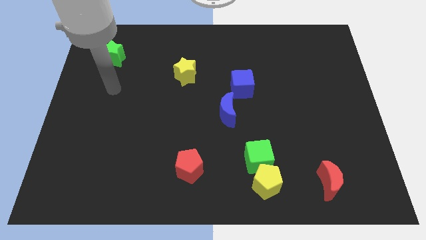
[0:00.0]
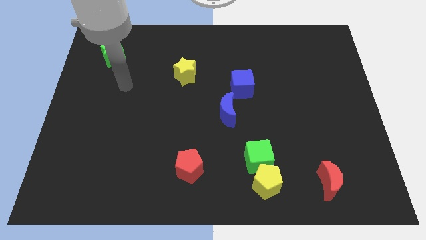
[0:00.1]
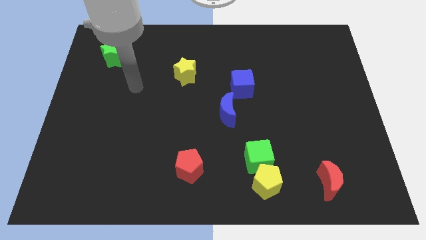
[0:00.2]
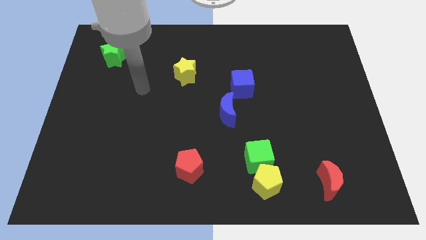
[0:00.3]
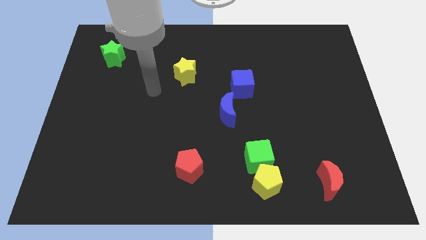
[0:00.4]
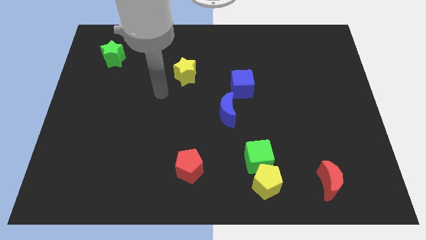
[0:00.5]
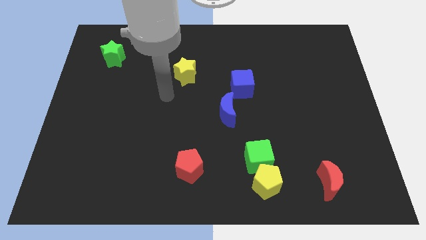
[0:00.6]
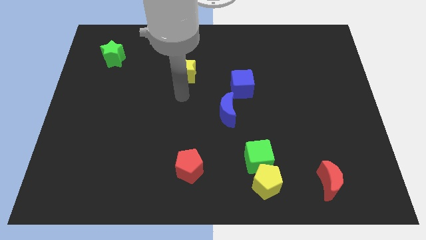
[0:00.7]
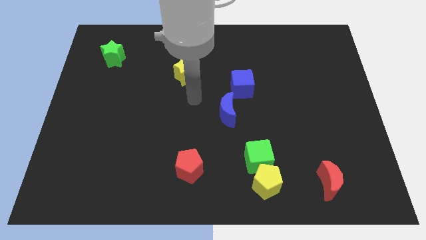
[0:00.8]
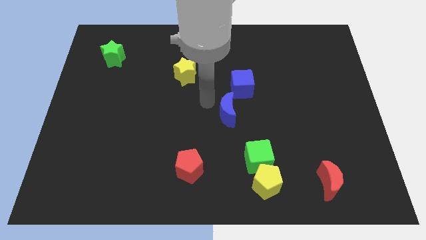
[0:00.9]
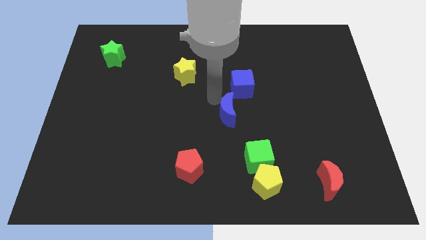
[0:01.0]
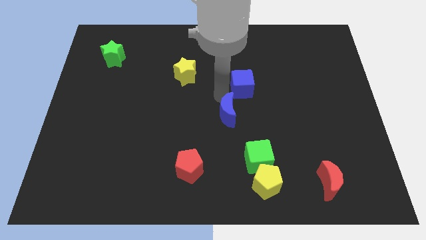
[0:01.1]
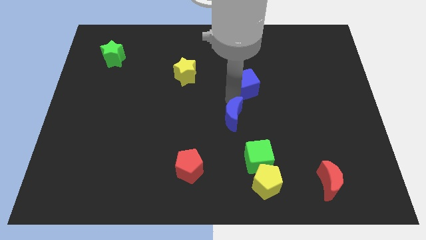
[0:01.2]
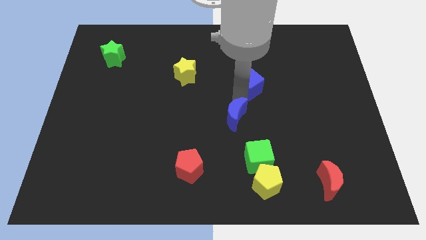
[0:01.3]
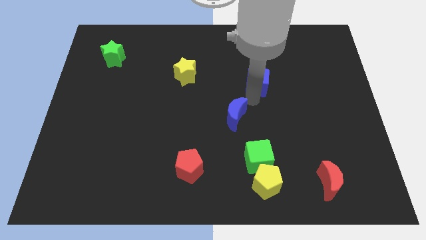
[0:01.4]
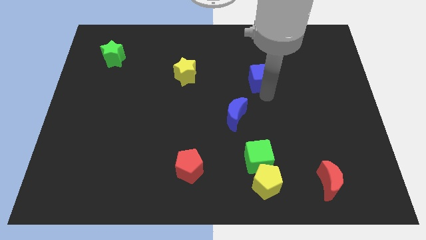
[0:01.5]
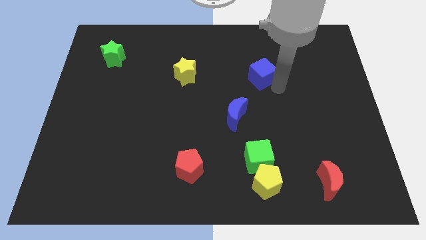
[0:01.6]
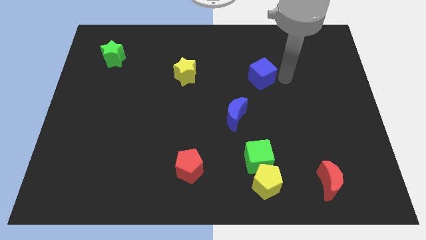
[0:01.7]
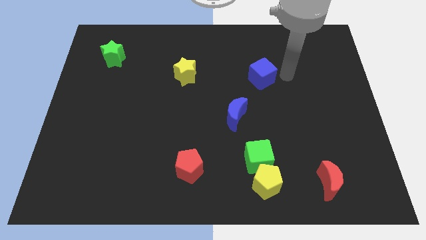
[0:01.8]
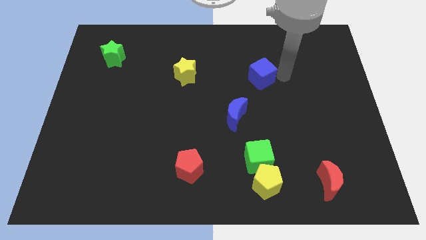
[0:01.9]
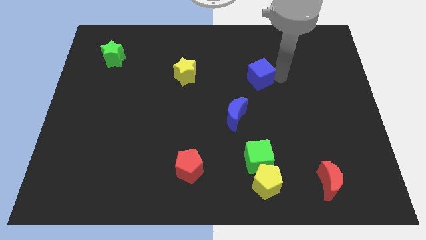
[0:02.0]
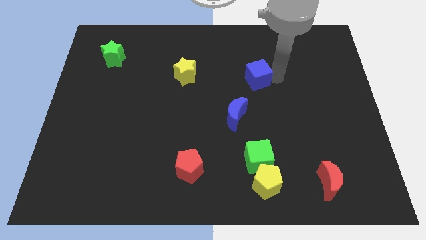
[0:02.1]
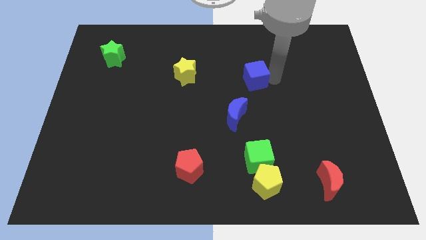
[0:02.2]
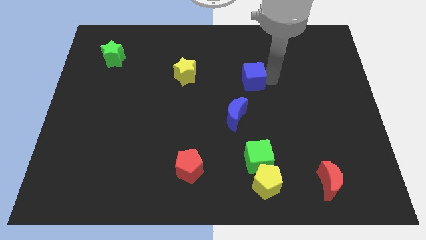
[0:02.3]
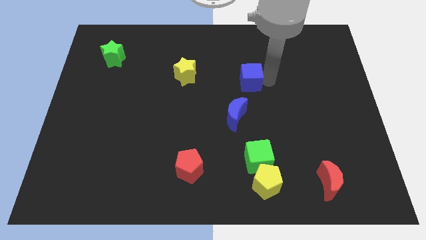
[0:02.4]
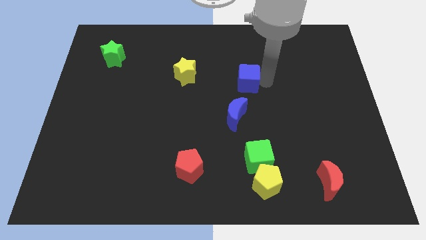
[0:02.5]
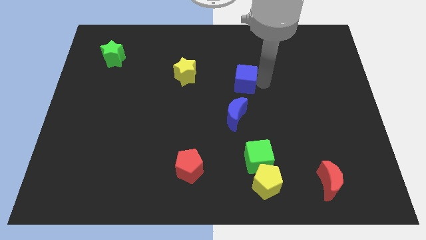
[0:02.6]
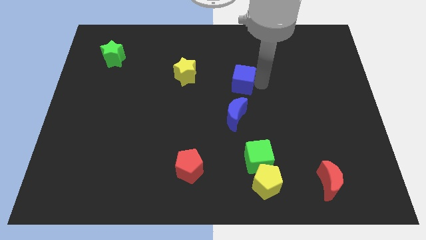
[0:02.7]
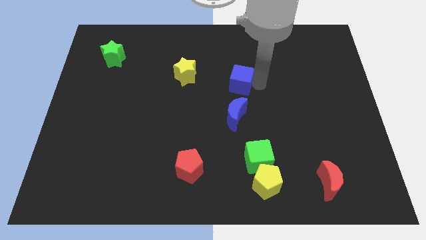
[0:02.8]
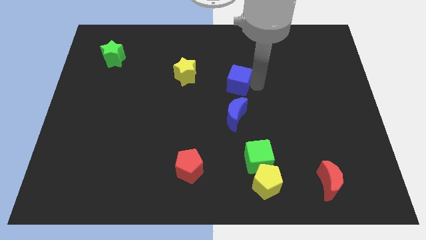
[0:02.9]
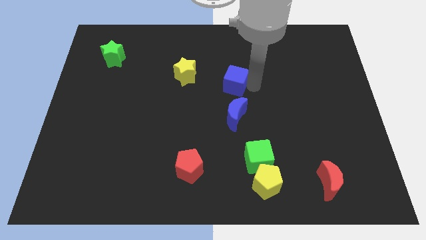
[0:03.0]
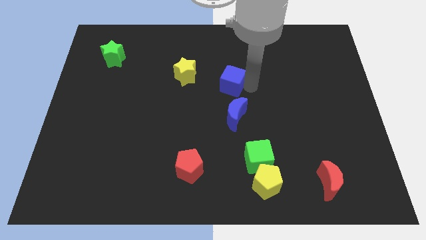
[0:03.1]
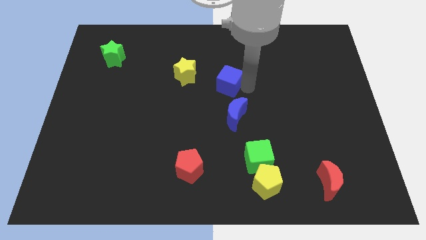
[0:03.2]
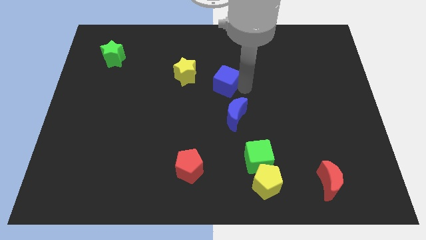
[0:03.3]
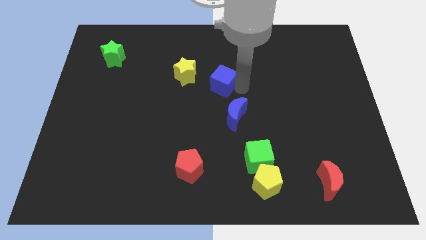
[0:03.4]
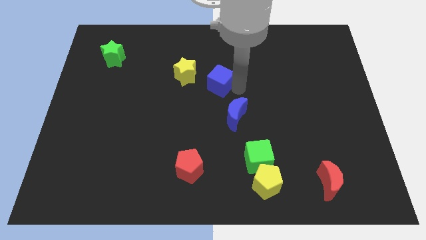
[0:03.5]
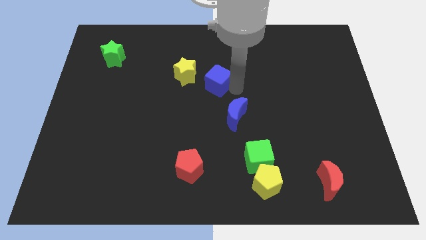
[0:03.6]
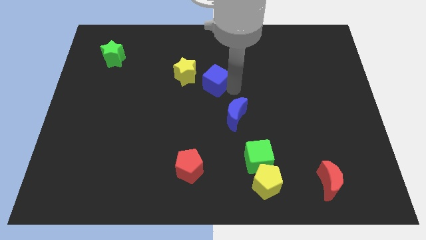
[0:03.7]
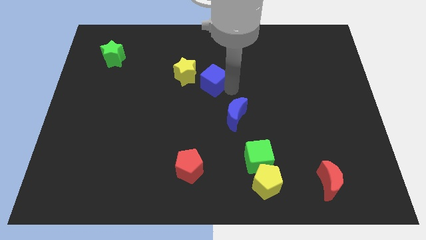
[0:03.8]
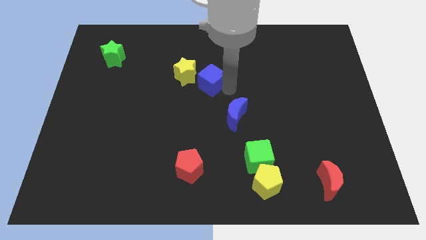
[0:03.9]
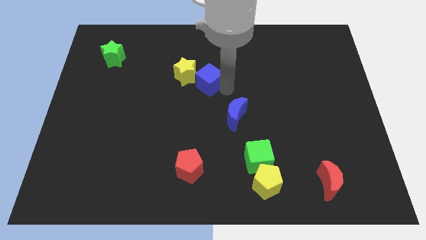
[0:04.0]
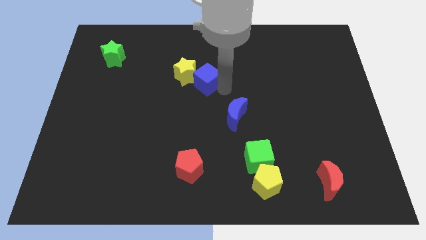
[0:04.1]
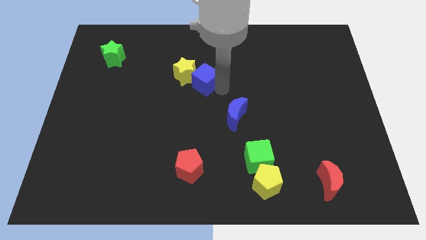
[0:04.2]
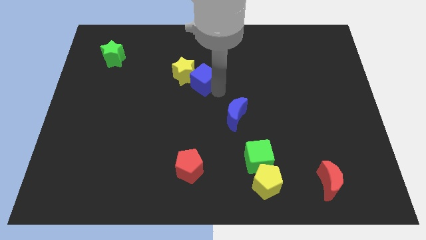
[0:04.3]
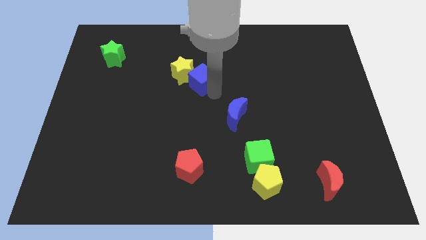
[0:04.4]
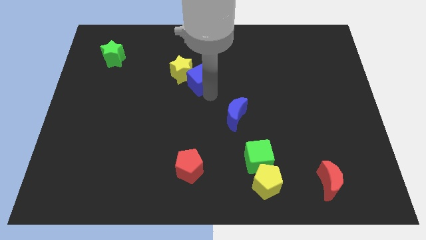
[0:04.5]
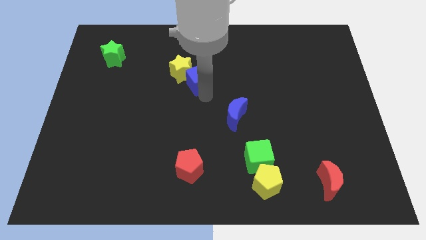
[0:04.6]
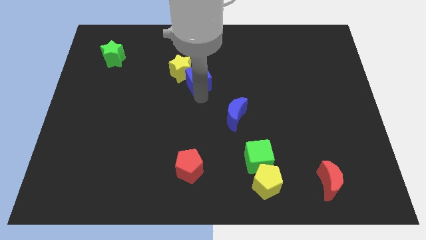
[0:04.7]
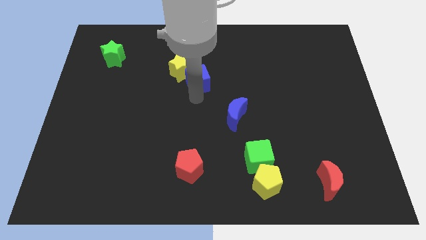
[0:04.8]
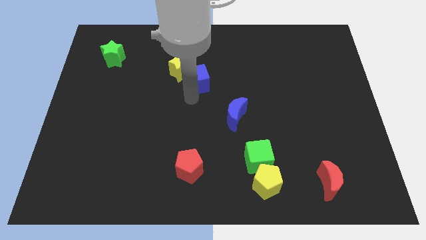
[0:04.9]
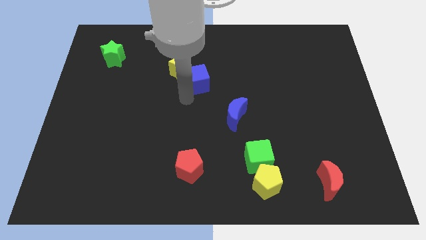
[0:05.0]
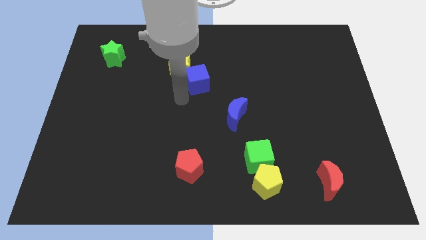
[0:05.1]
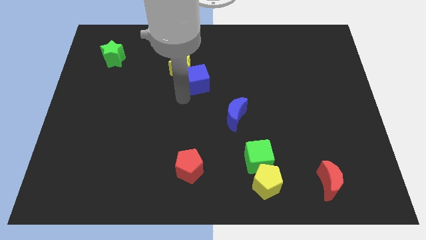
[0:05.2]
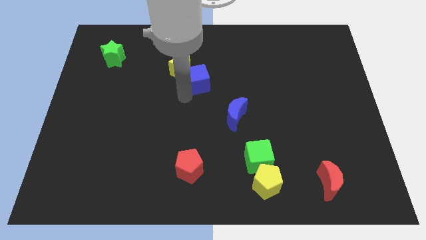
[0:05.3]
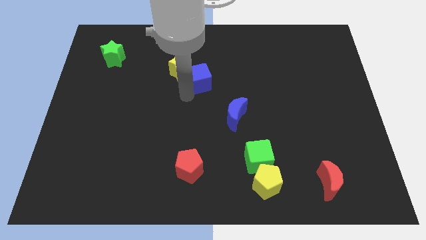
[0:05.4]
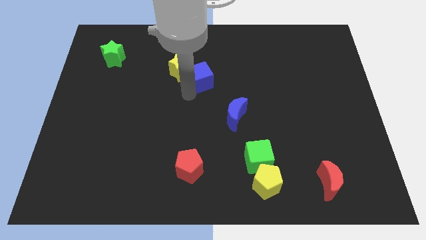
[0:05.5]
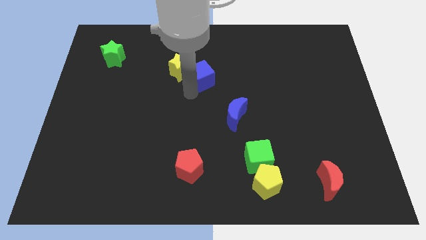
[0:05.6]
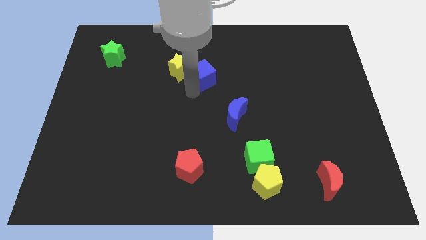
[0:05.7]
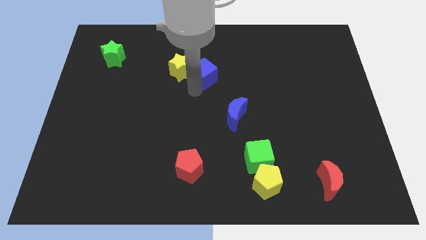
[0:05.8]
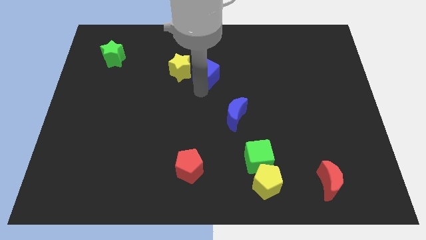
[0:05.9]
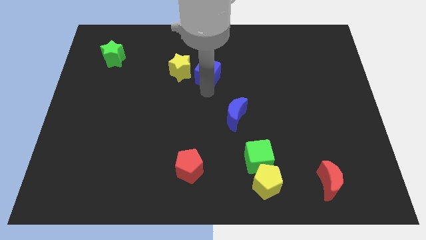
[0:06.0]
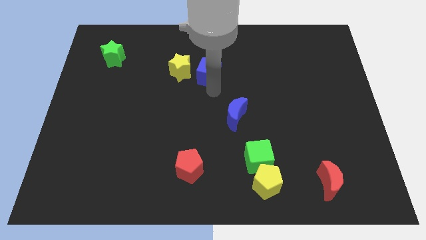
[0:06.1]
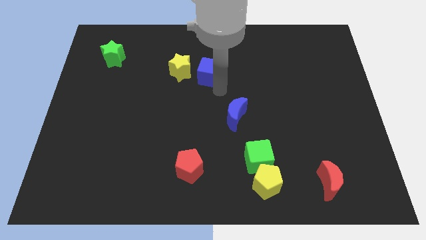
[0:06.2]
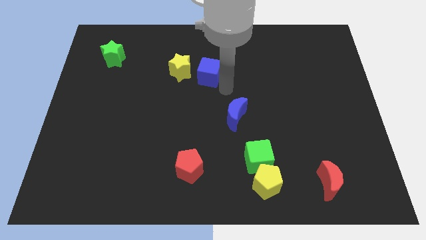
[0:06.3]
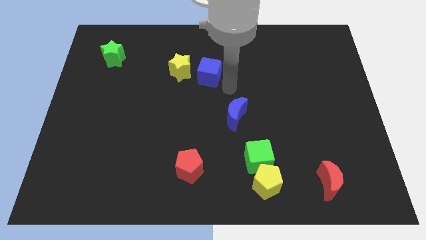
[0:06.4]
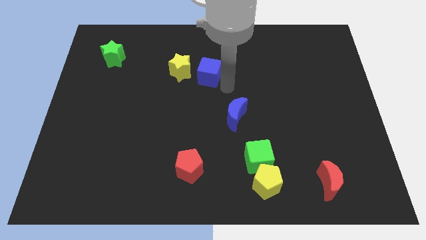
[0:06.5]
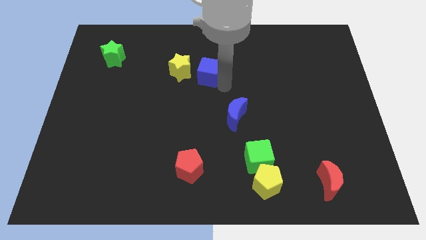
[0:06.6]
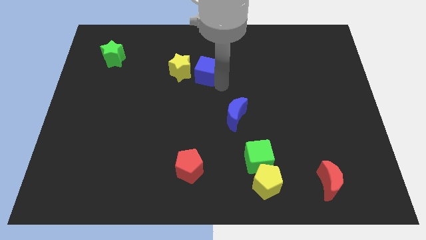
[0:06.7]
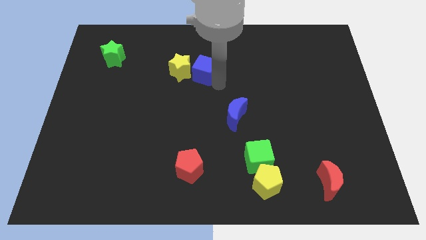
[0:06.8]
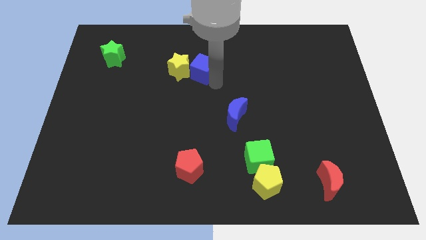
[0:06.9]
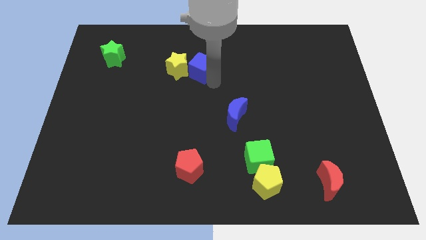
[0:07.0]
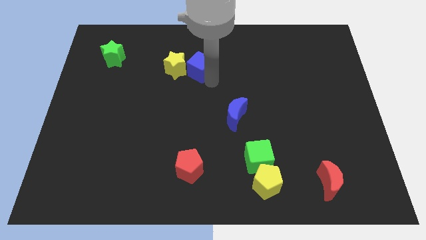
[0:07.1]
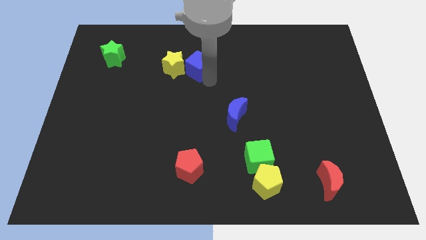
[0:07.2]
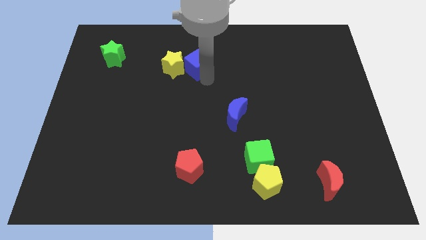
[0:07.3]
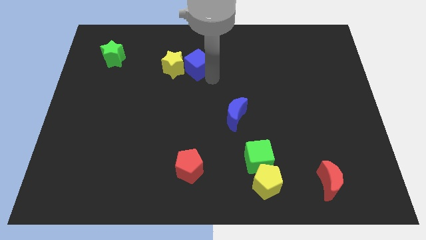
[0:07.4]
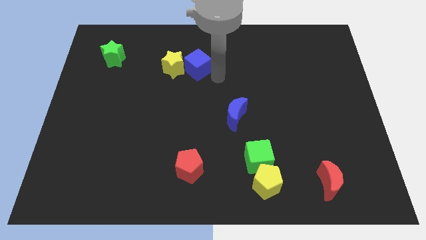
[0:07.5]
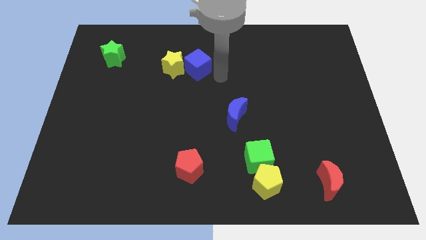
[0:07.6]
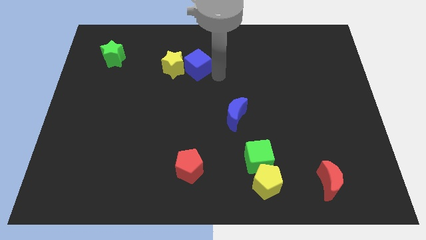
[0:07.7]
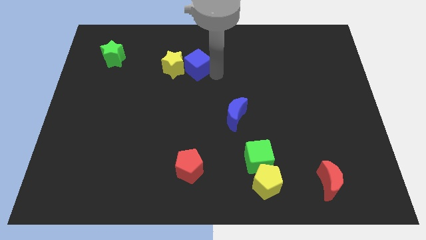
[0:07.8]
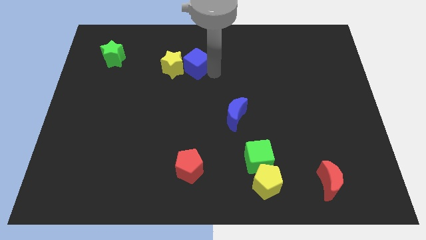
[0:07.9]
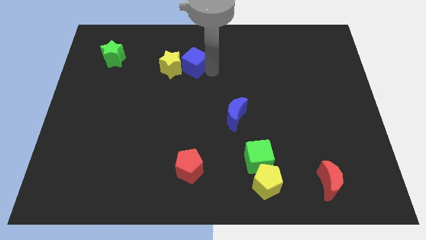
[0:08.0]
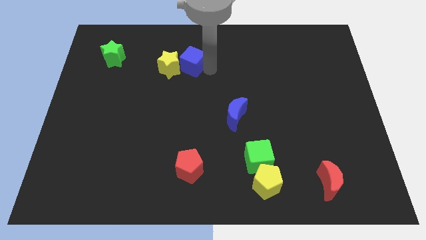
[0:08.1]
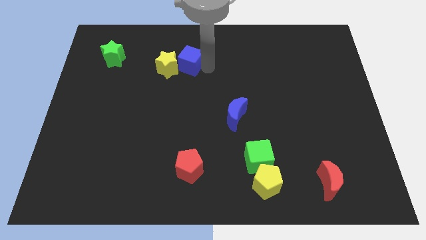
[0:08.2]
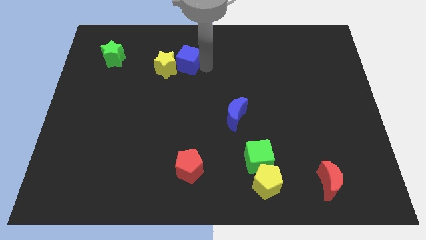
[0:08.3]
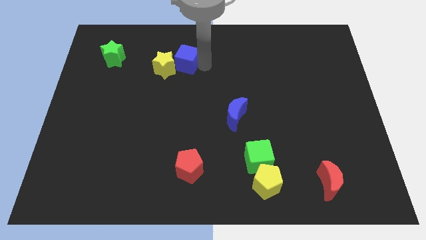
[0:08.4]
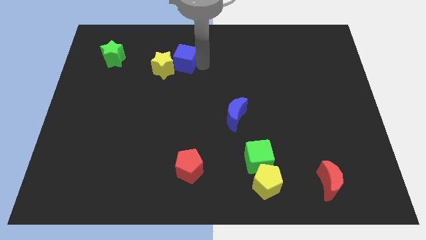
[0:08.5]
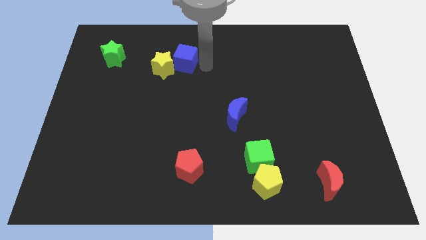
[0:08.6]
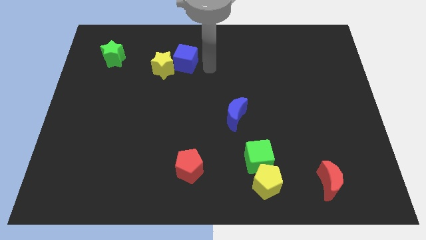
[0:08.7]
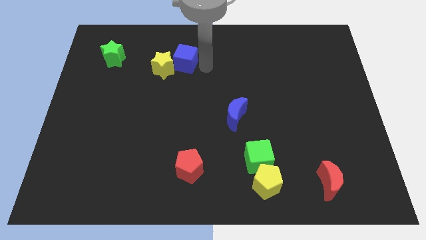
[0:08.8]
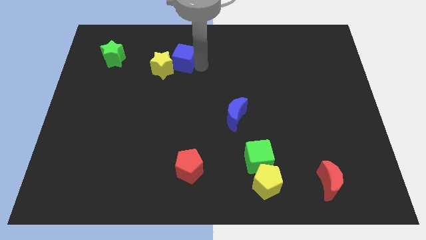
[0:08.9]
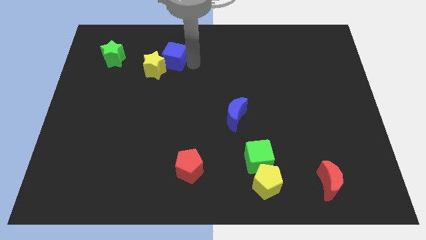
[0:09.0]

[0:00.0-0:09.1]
move the blue cube to the right of the green star
